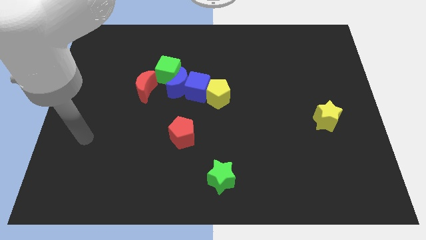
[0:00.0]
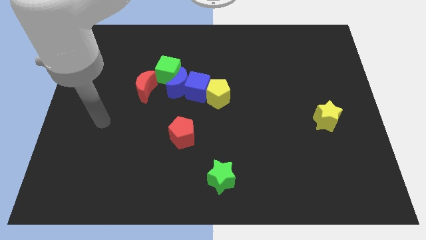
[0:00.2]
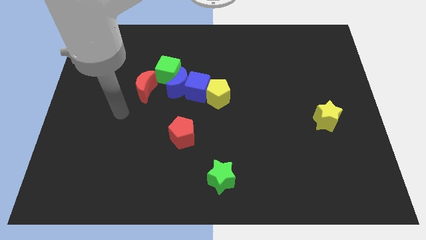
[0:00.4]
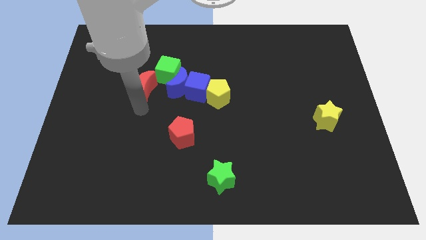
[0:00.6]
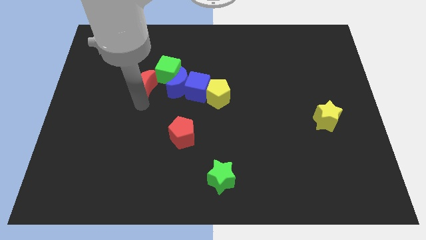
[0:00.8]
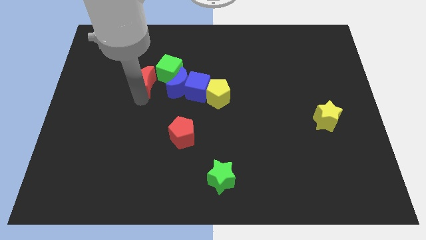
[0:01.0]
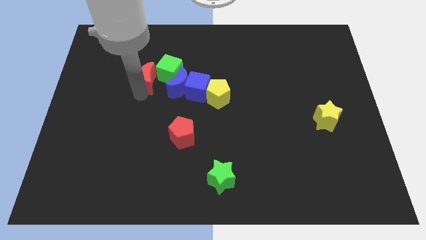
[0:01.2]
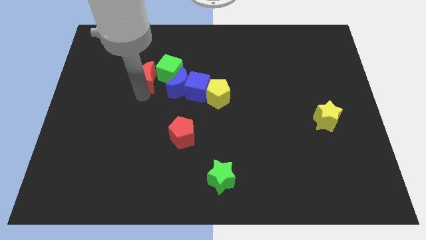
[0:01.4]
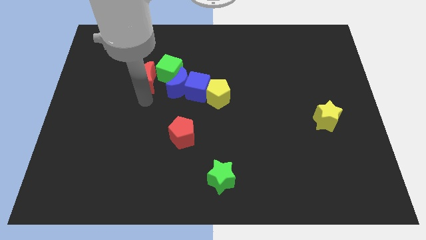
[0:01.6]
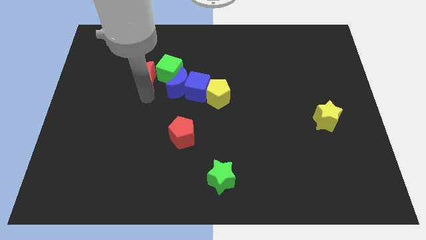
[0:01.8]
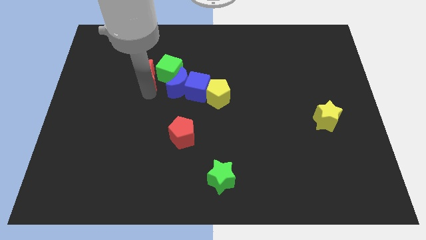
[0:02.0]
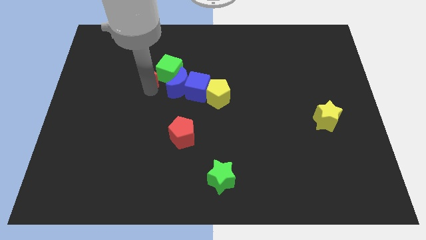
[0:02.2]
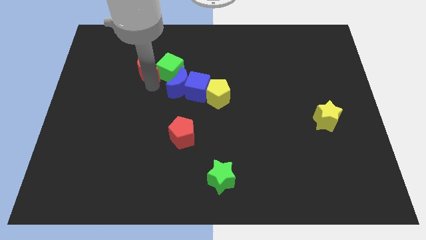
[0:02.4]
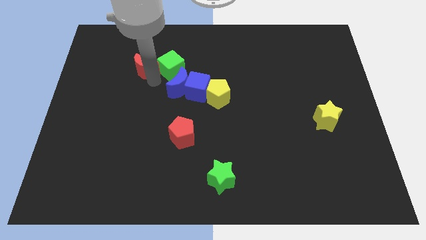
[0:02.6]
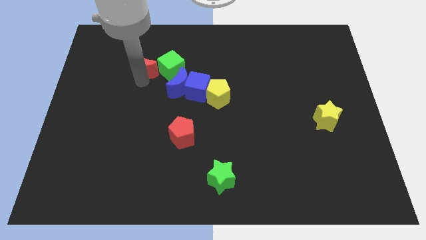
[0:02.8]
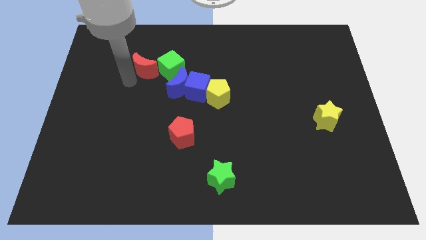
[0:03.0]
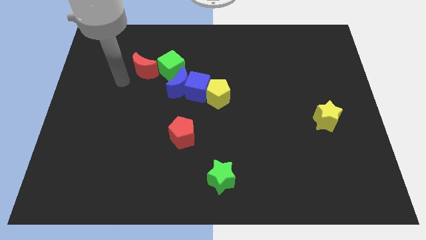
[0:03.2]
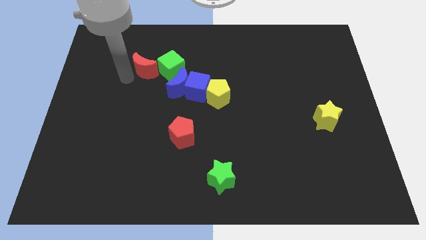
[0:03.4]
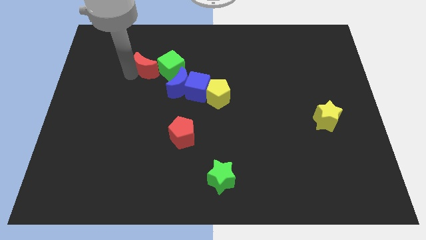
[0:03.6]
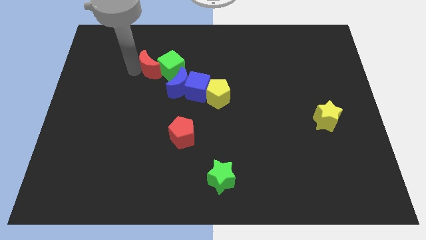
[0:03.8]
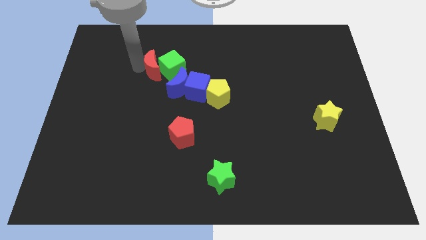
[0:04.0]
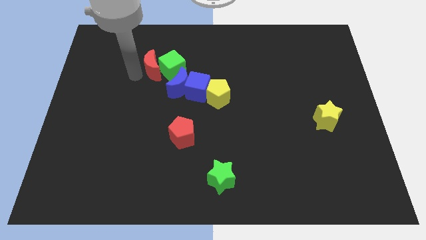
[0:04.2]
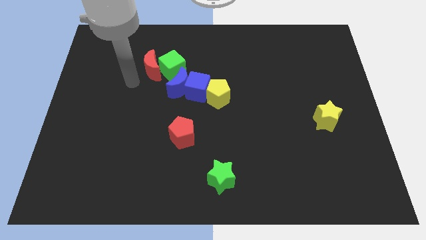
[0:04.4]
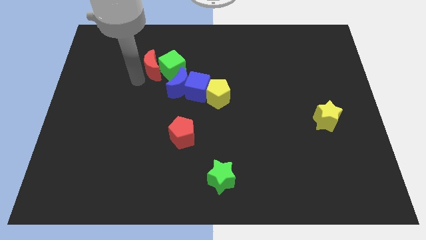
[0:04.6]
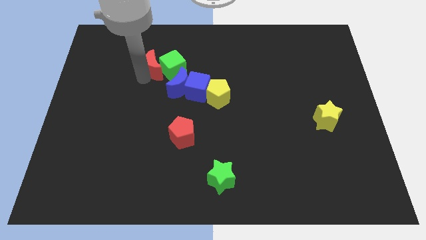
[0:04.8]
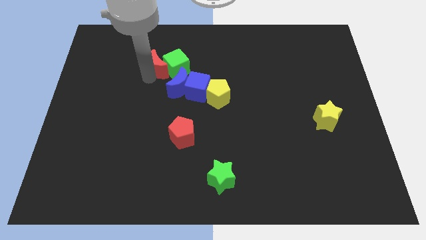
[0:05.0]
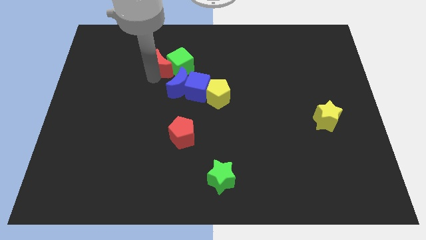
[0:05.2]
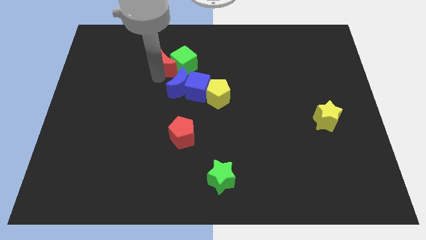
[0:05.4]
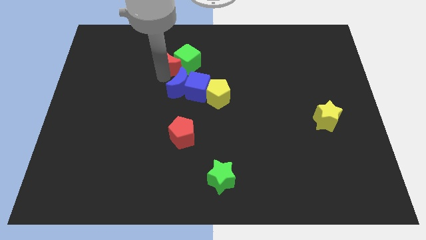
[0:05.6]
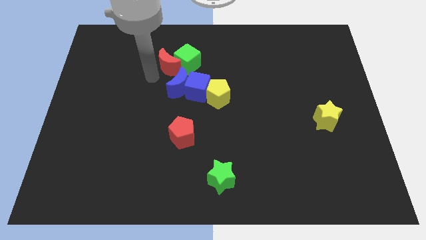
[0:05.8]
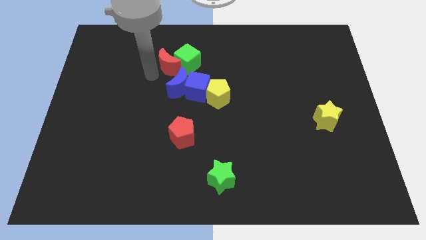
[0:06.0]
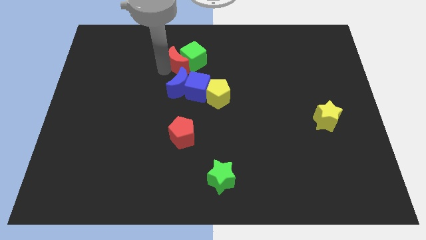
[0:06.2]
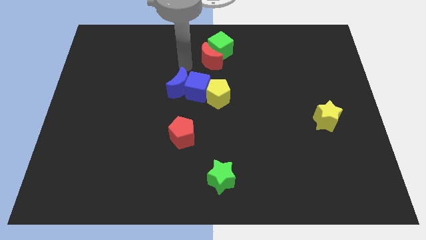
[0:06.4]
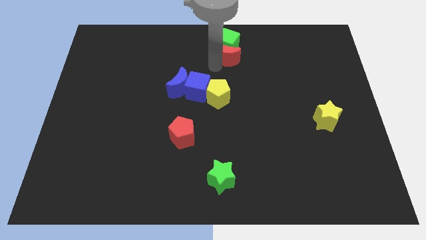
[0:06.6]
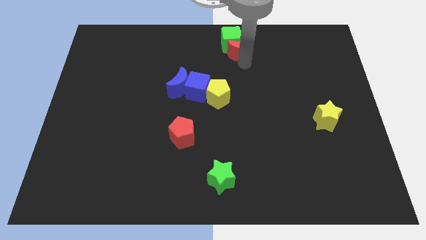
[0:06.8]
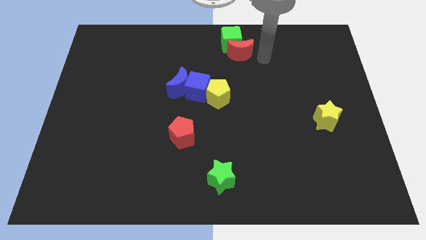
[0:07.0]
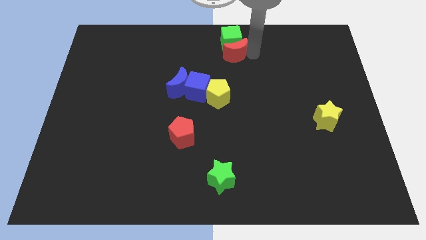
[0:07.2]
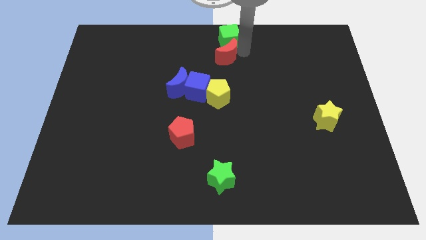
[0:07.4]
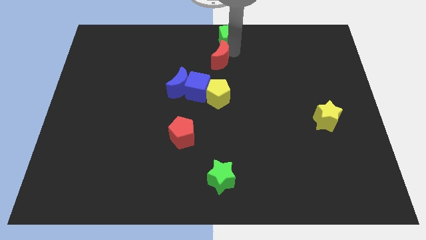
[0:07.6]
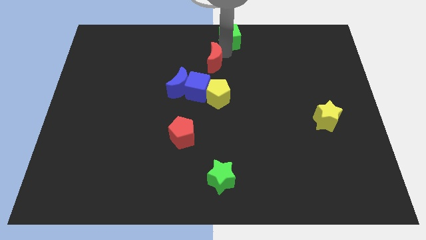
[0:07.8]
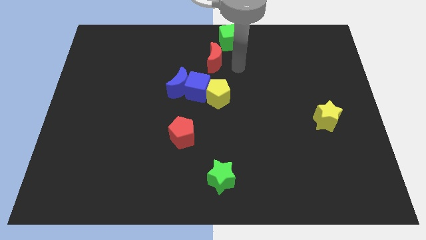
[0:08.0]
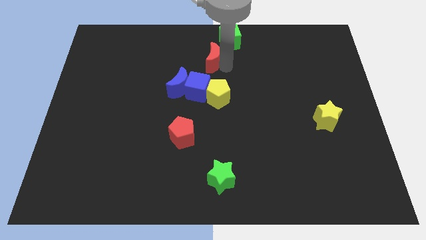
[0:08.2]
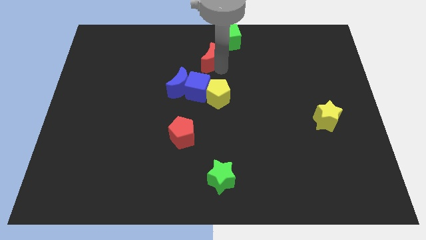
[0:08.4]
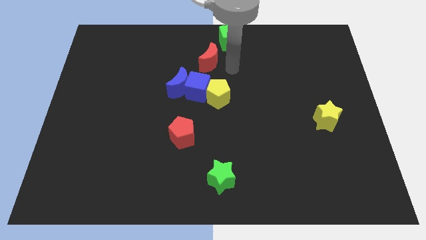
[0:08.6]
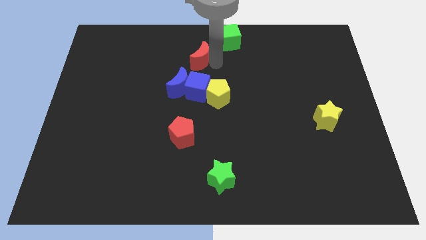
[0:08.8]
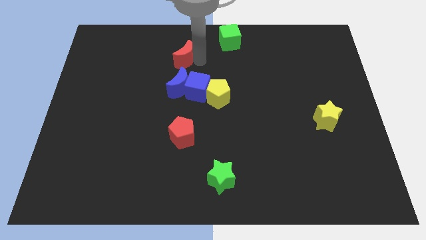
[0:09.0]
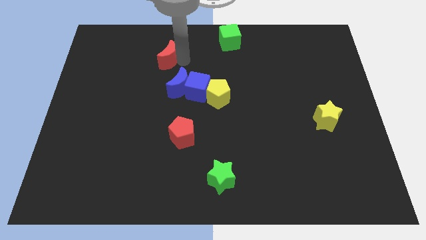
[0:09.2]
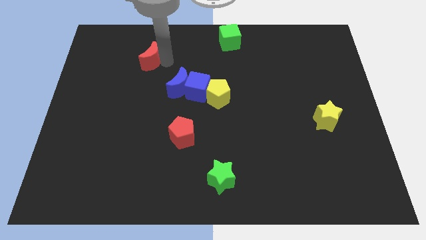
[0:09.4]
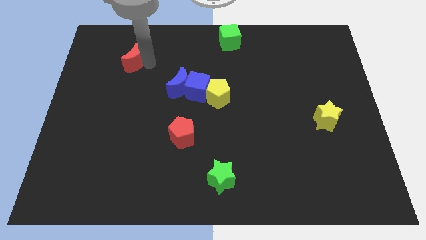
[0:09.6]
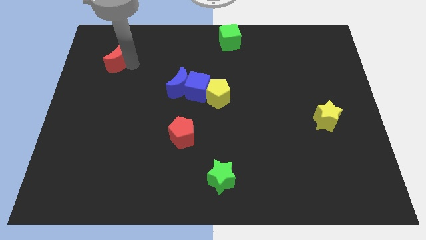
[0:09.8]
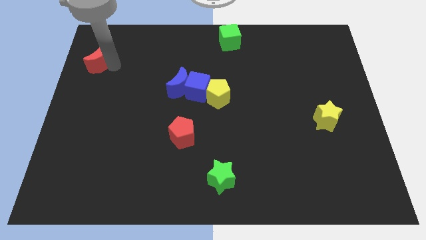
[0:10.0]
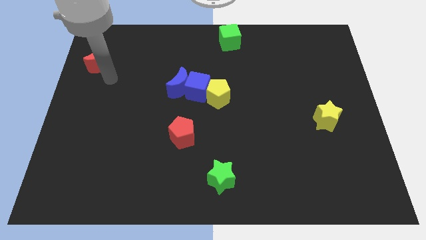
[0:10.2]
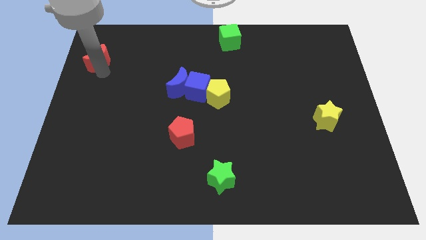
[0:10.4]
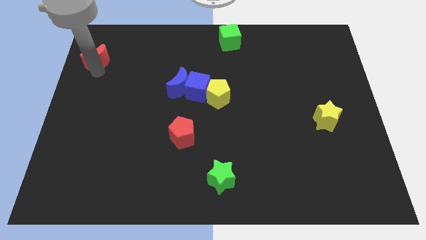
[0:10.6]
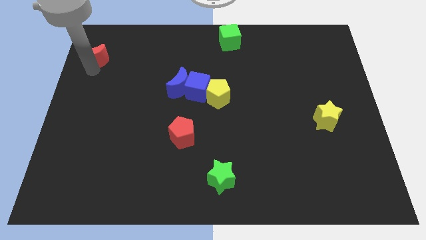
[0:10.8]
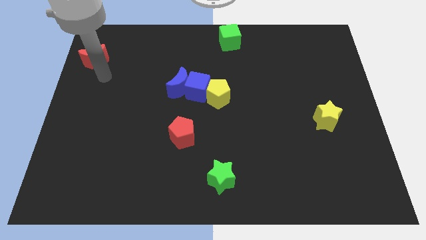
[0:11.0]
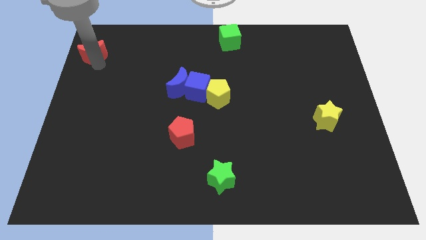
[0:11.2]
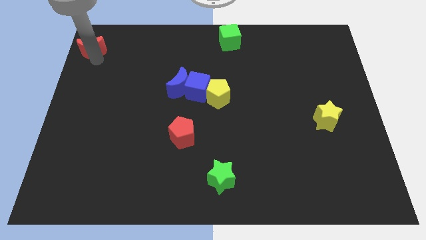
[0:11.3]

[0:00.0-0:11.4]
put the red moon to the upper left corner
